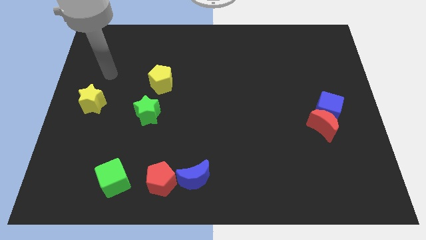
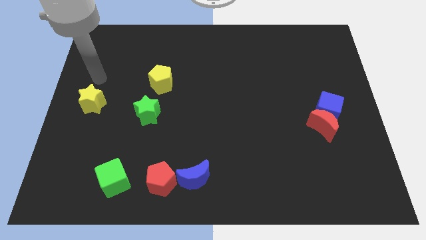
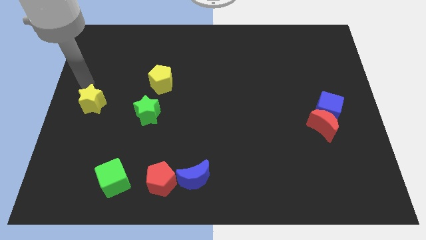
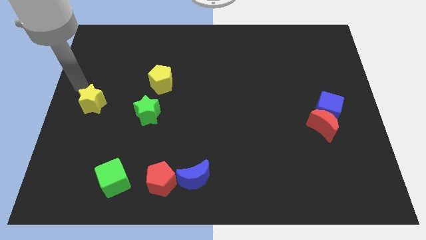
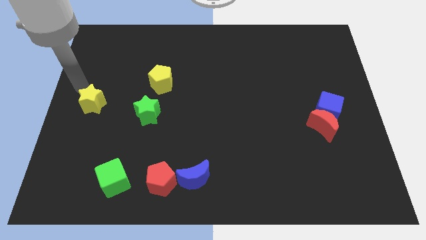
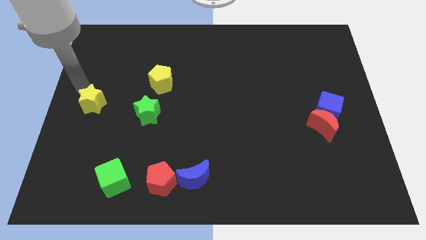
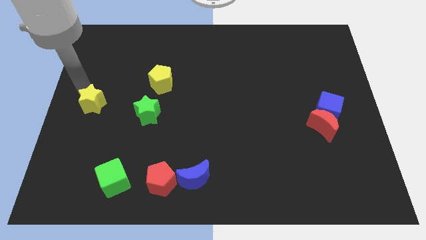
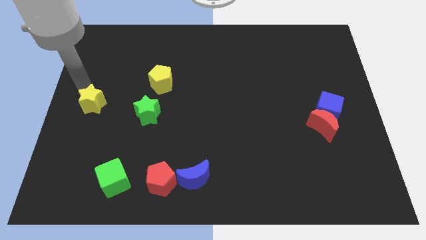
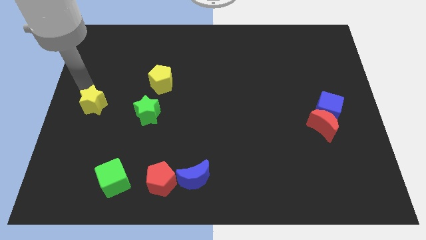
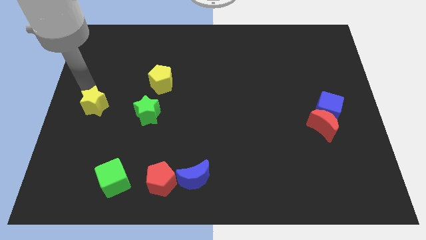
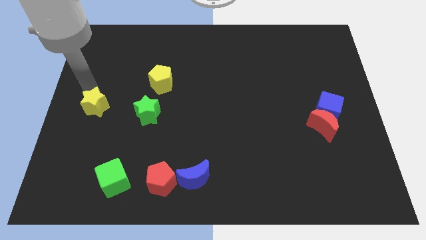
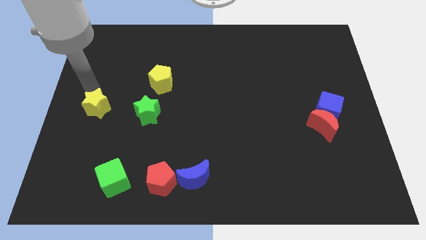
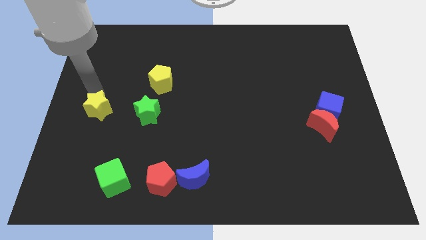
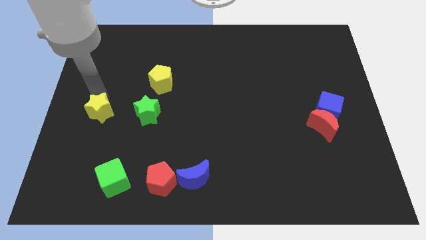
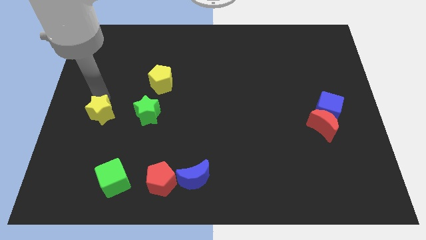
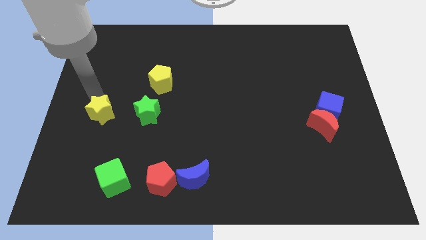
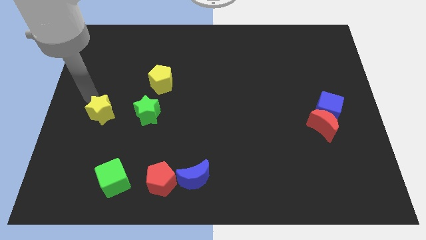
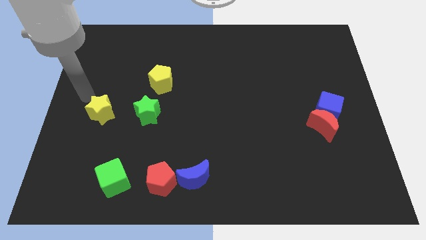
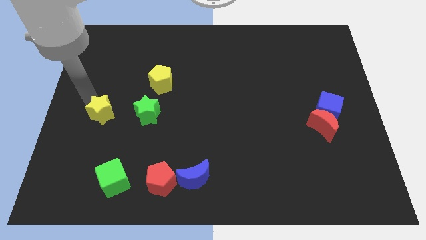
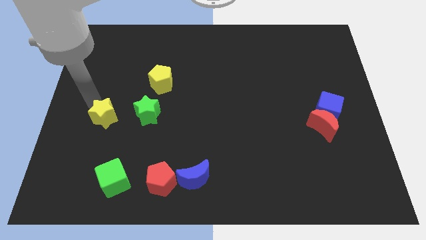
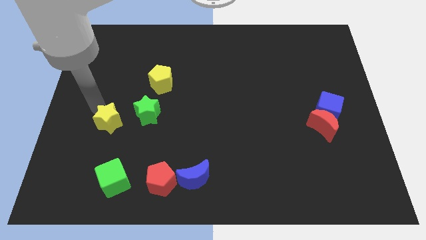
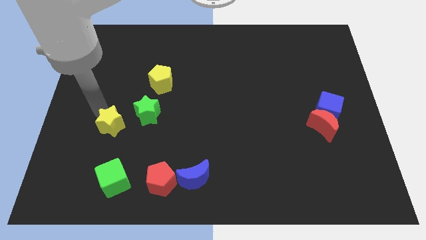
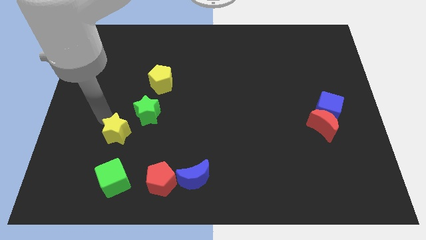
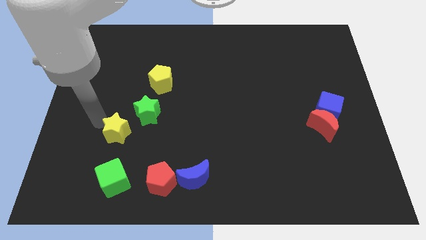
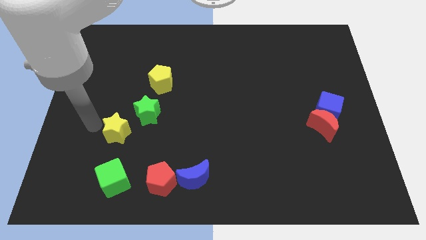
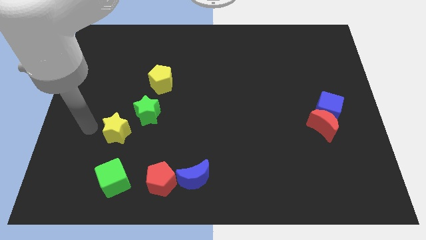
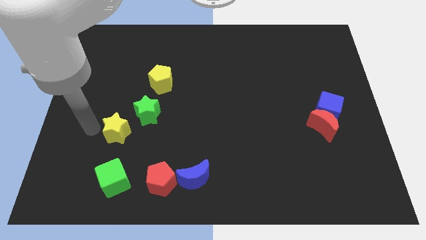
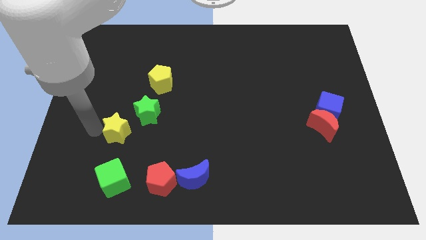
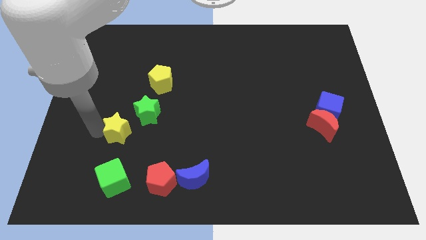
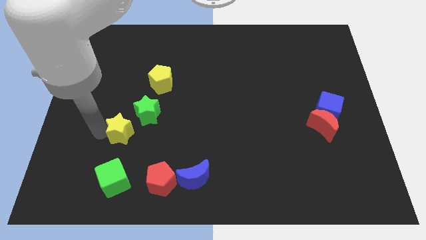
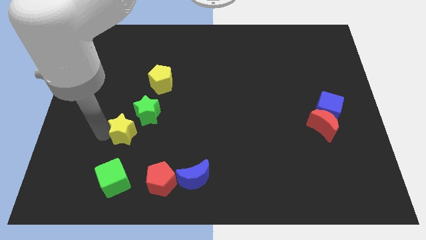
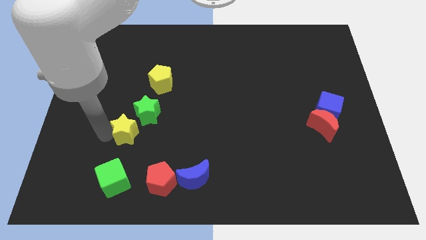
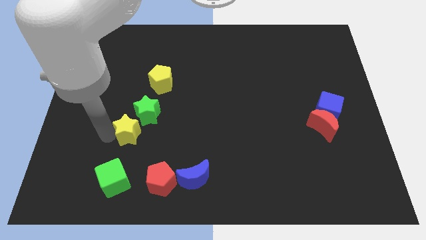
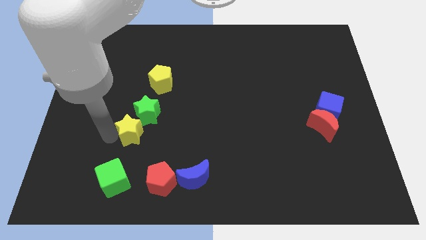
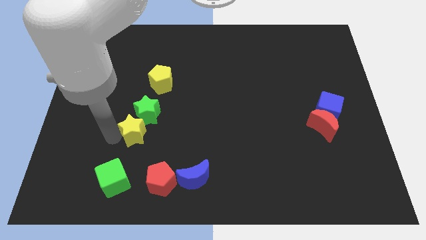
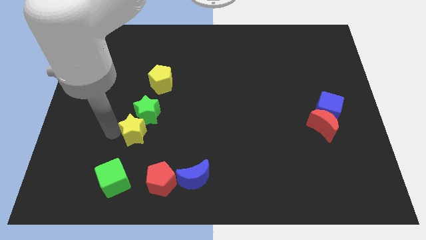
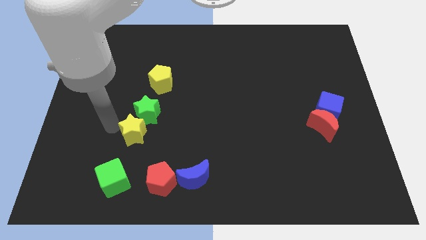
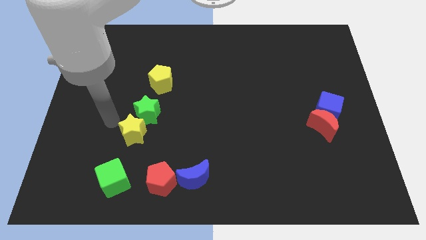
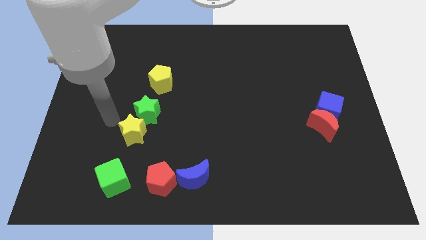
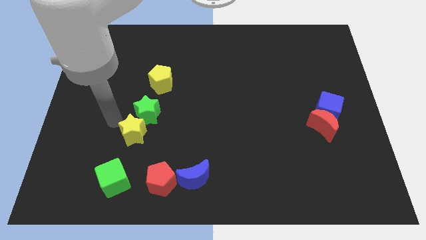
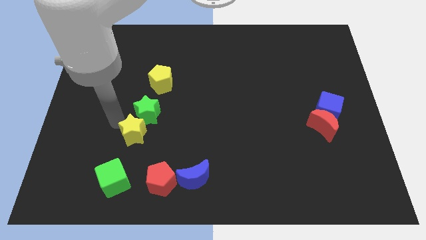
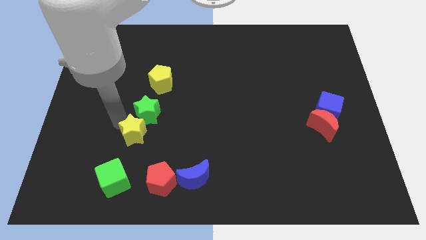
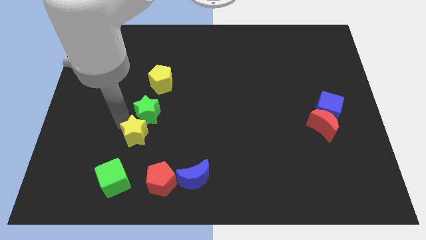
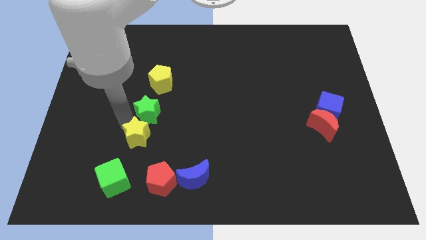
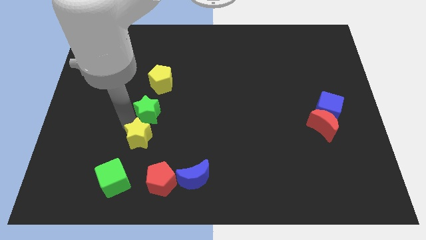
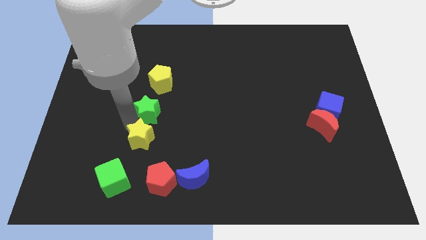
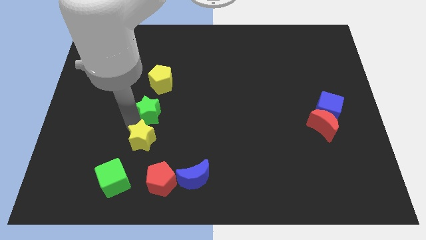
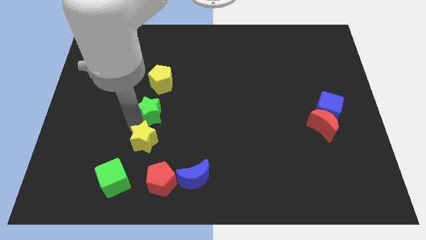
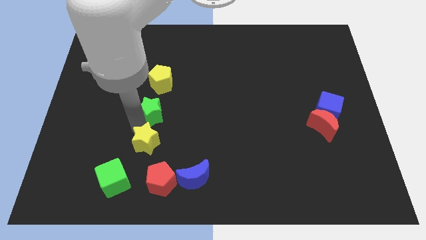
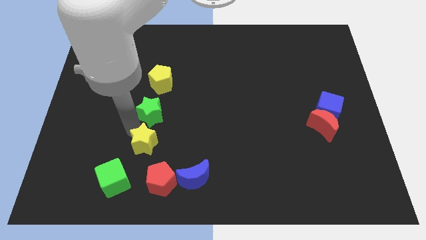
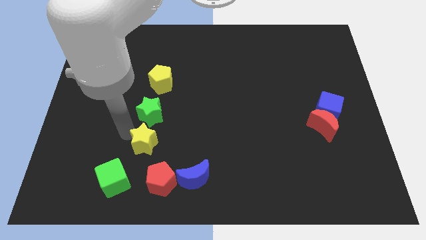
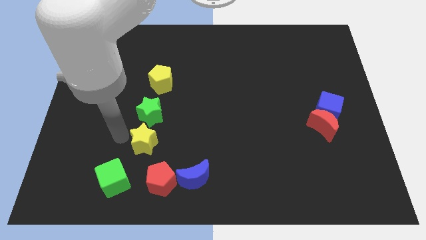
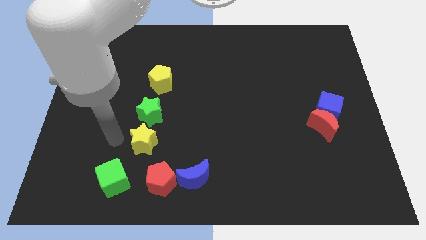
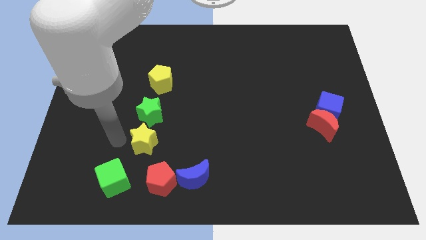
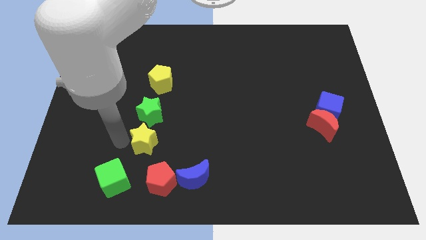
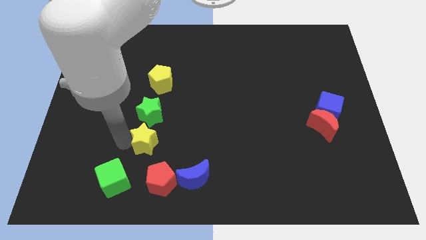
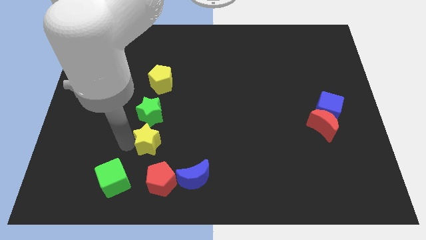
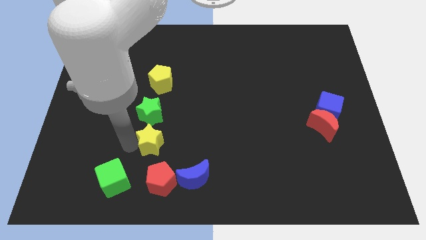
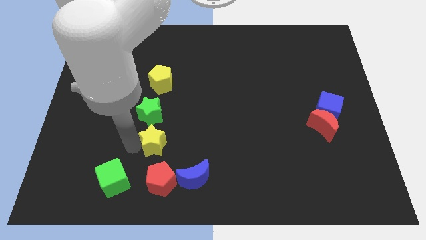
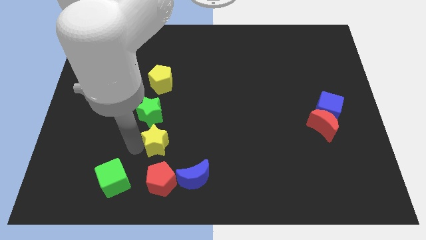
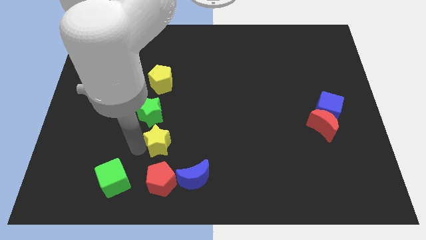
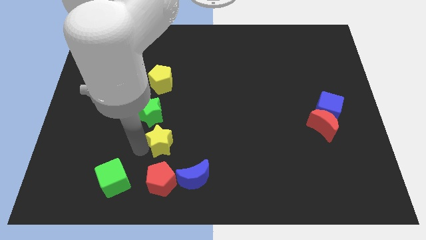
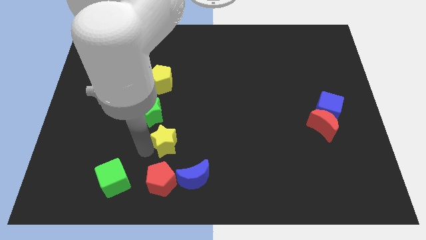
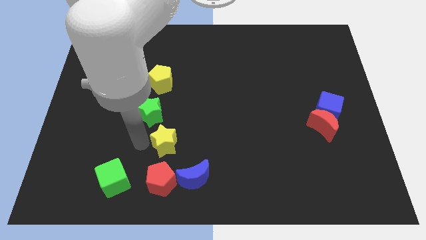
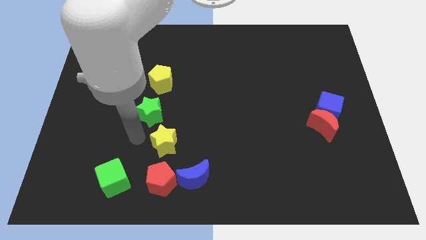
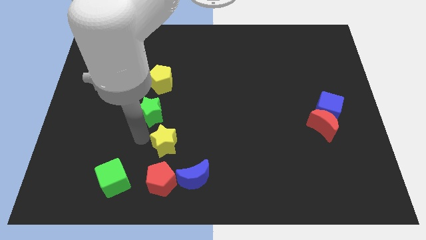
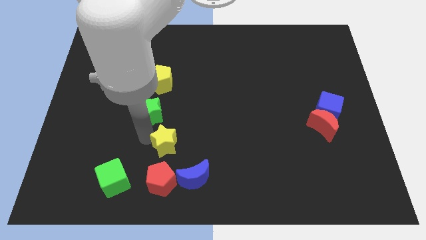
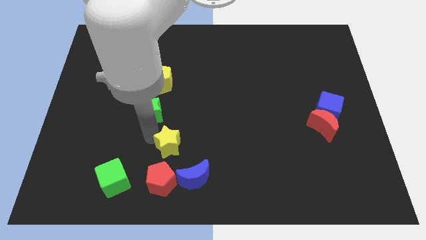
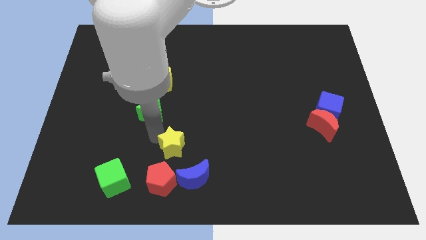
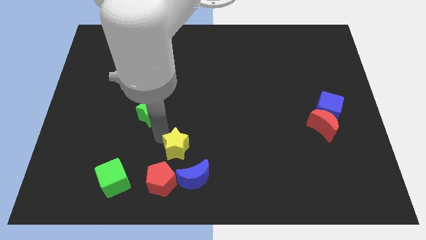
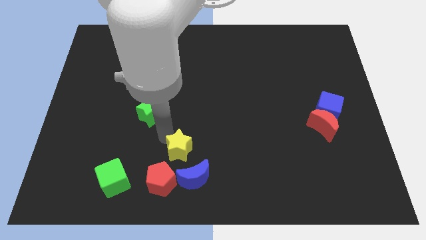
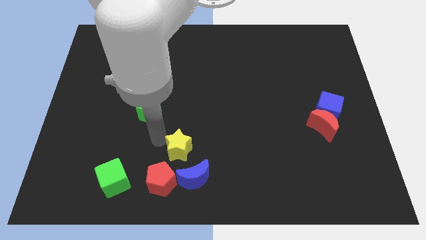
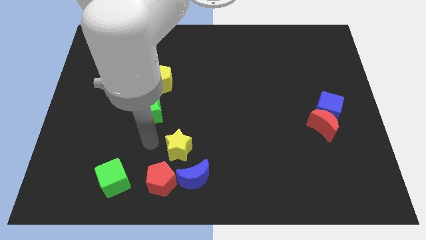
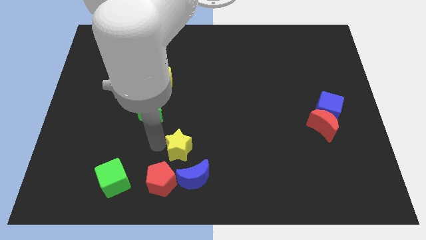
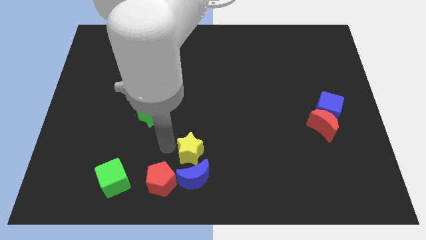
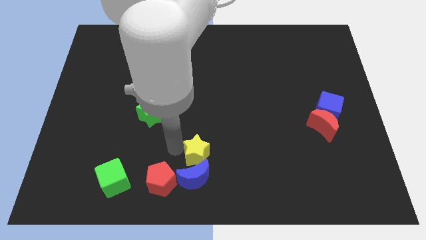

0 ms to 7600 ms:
move the yellow star diagonally up and to the right of the blue moon
